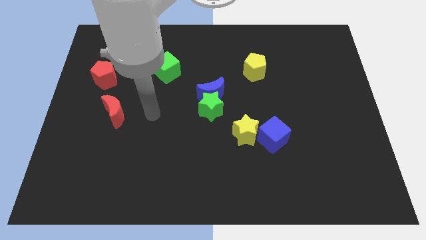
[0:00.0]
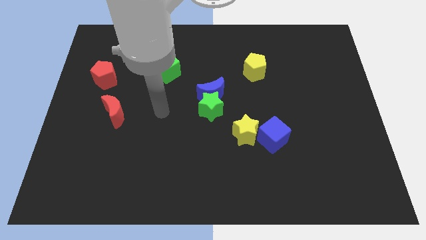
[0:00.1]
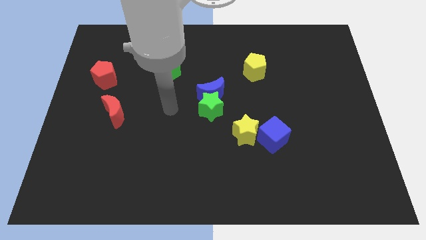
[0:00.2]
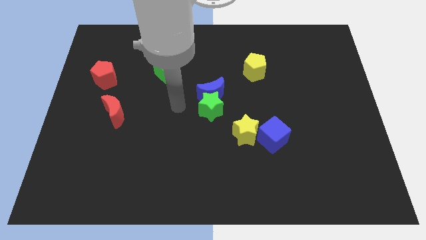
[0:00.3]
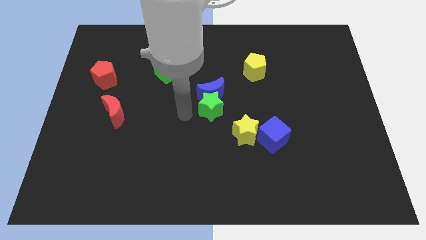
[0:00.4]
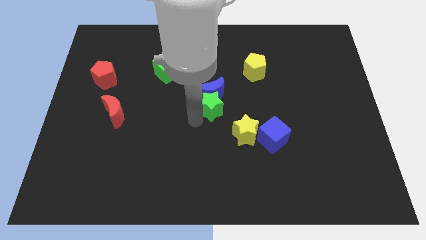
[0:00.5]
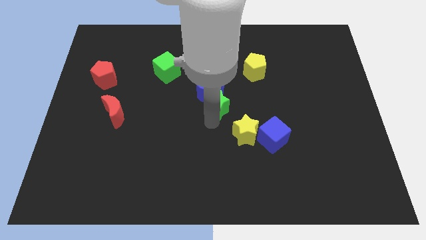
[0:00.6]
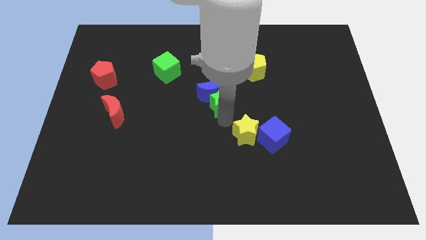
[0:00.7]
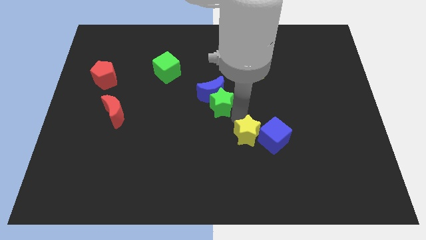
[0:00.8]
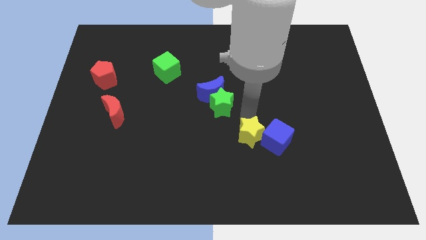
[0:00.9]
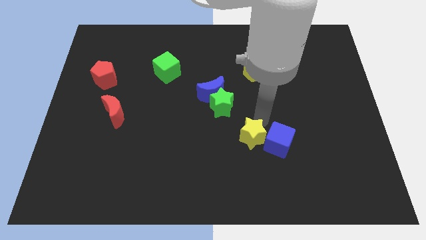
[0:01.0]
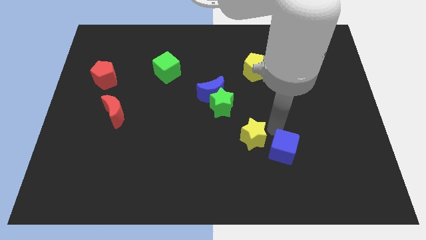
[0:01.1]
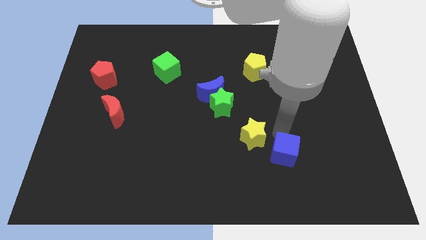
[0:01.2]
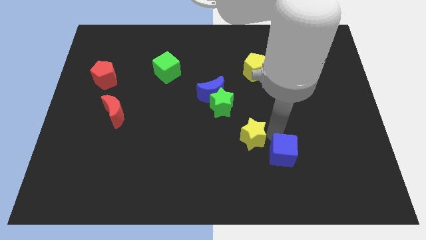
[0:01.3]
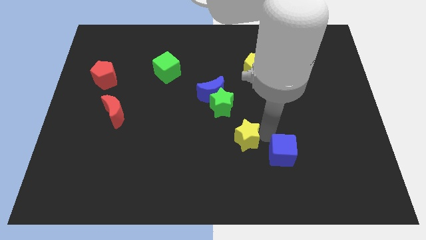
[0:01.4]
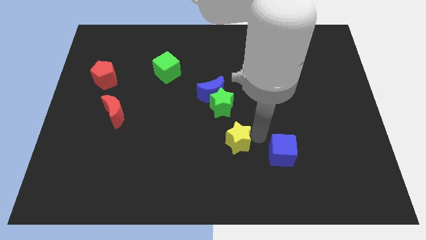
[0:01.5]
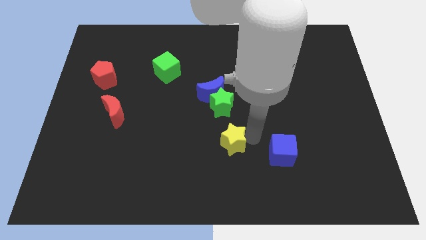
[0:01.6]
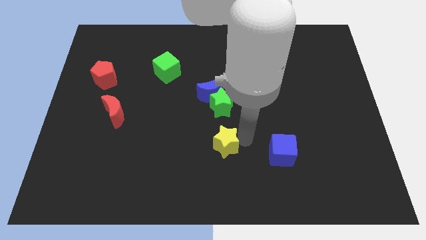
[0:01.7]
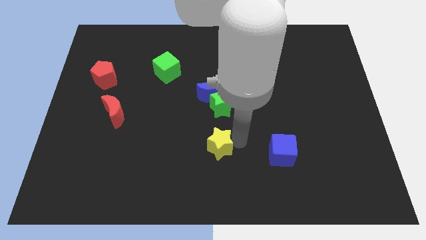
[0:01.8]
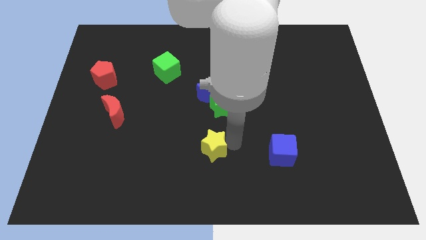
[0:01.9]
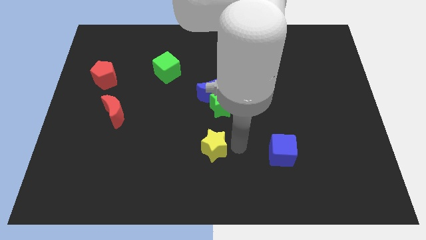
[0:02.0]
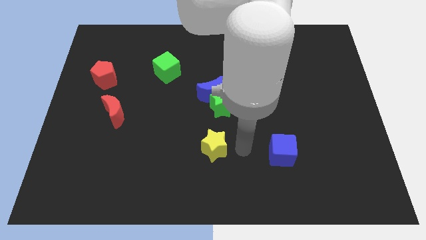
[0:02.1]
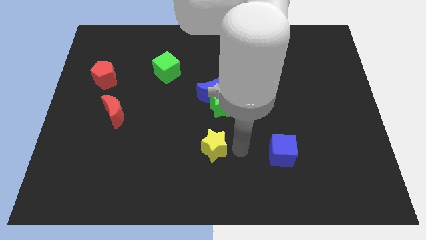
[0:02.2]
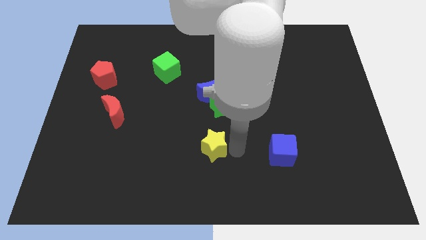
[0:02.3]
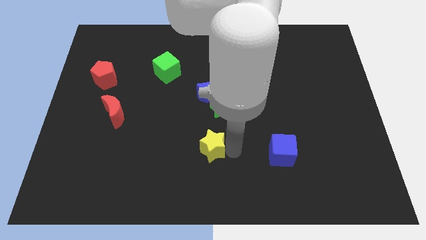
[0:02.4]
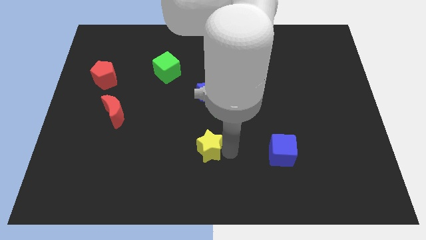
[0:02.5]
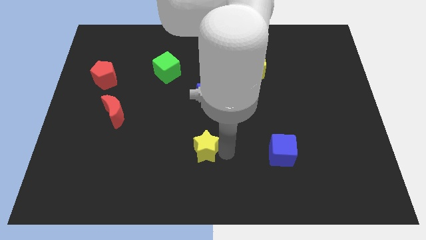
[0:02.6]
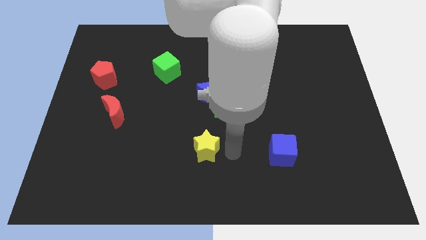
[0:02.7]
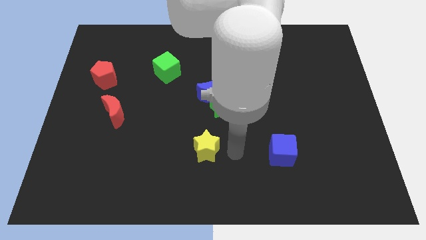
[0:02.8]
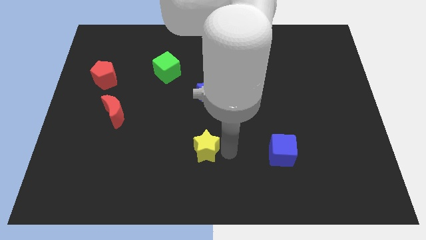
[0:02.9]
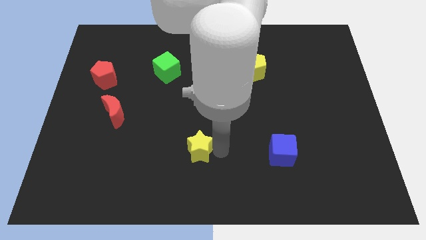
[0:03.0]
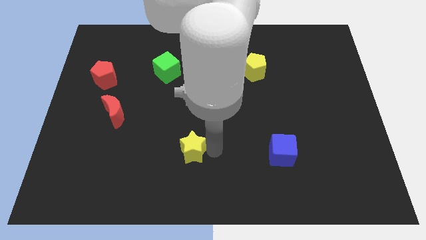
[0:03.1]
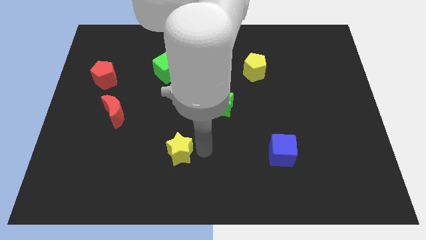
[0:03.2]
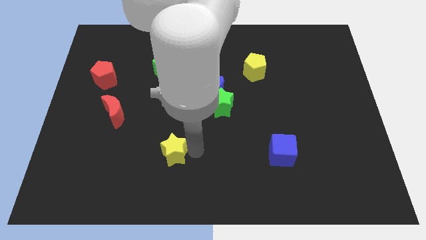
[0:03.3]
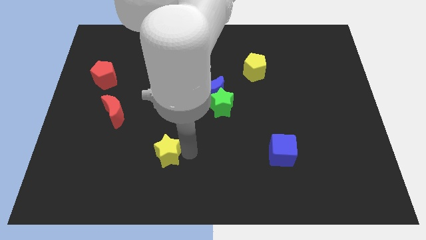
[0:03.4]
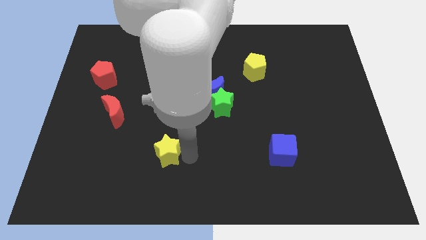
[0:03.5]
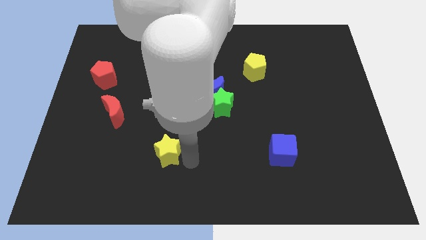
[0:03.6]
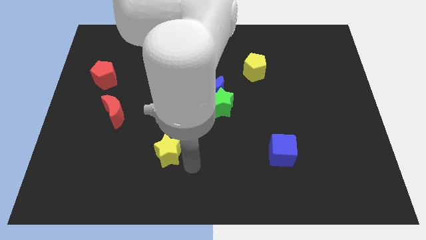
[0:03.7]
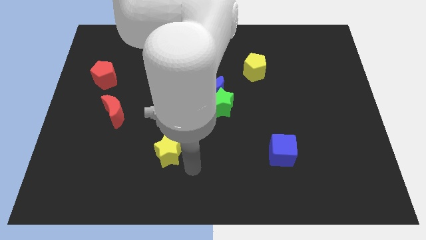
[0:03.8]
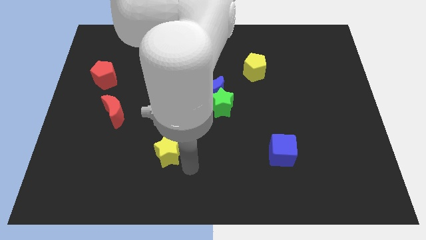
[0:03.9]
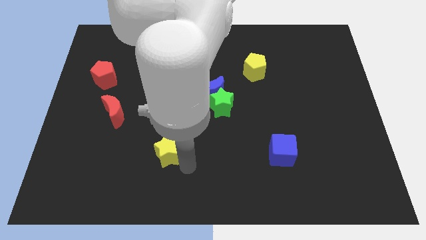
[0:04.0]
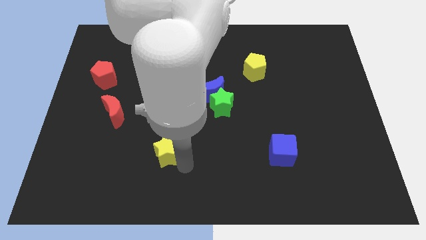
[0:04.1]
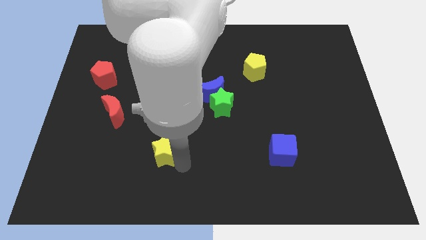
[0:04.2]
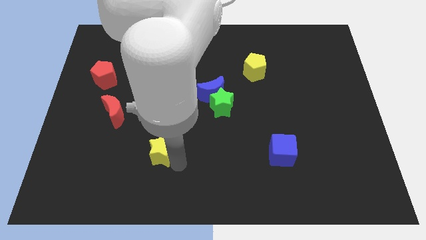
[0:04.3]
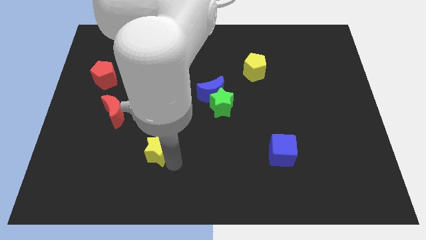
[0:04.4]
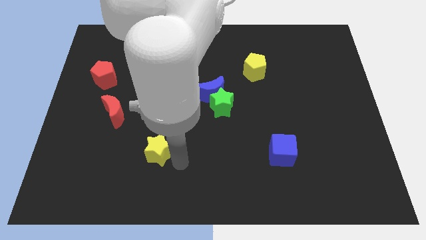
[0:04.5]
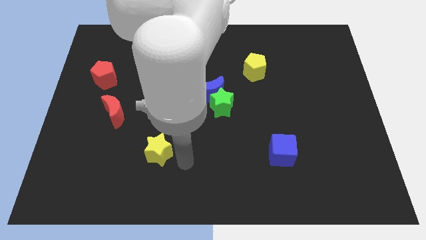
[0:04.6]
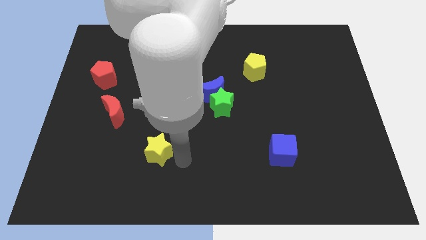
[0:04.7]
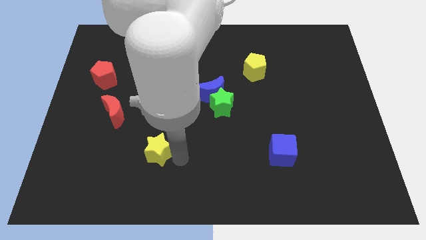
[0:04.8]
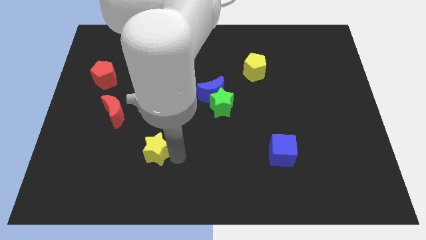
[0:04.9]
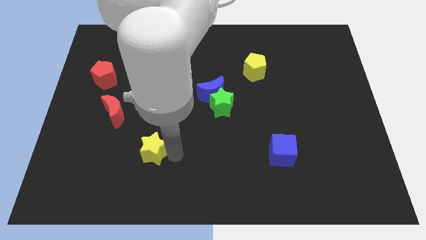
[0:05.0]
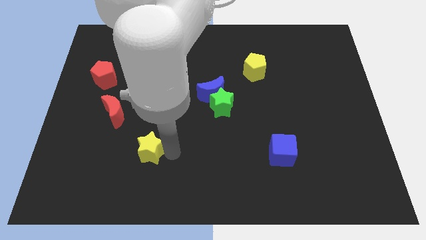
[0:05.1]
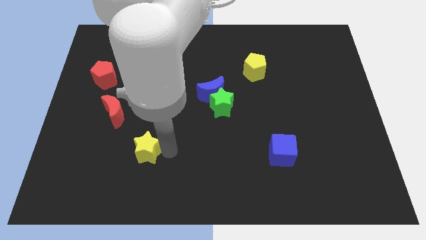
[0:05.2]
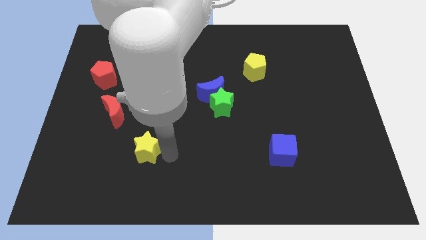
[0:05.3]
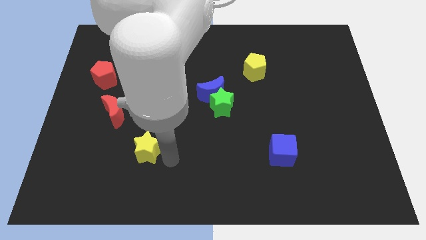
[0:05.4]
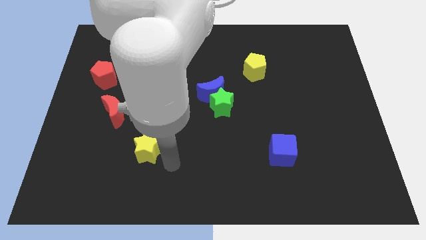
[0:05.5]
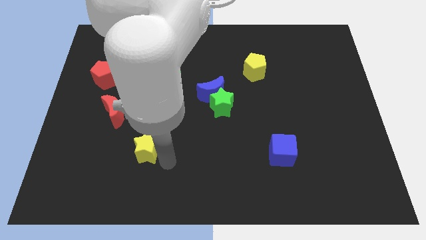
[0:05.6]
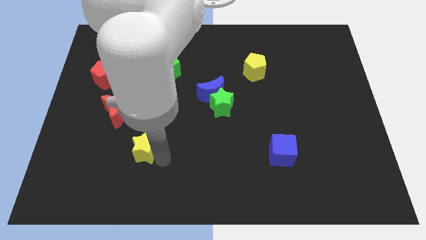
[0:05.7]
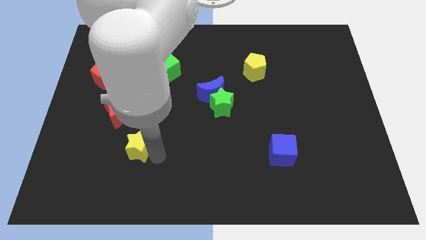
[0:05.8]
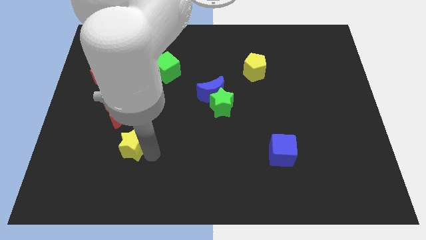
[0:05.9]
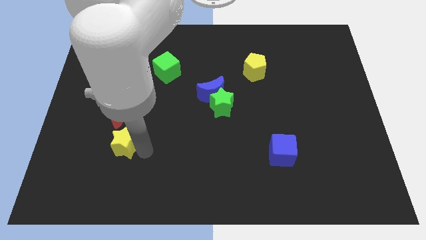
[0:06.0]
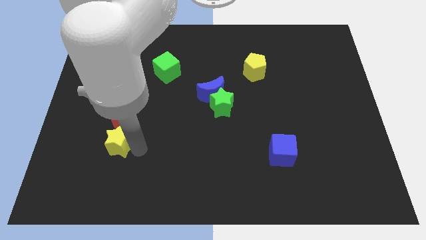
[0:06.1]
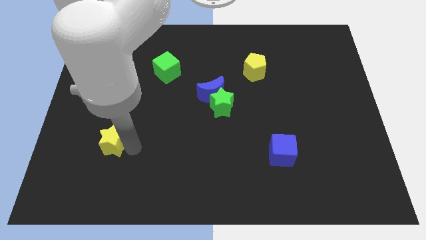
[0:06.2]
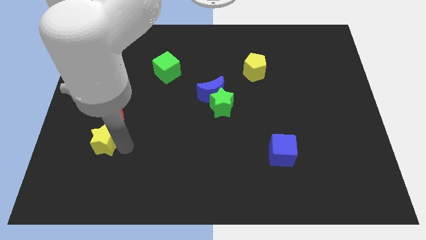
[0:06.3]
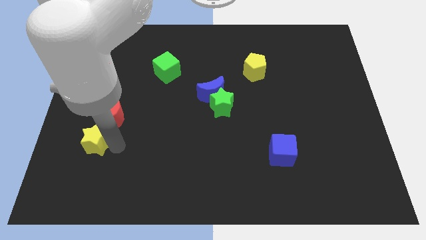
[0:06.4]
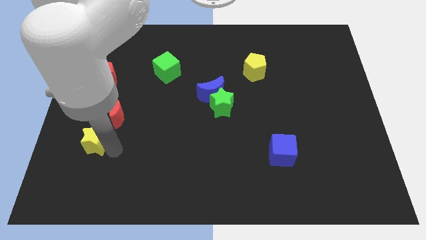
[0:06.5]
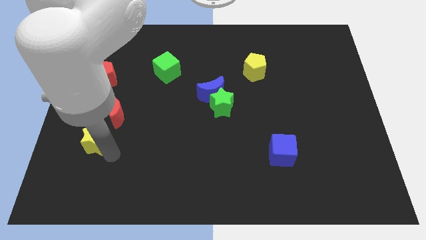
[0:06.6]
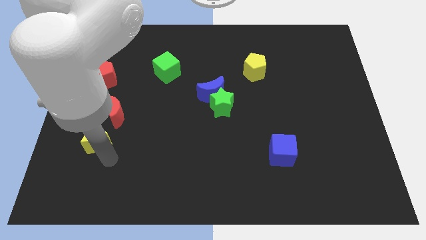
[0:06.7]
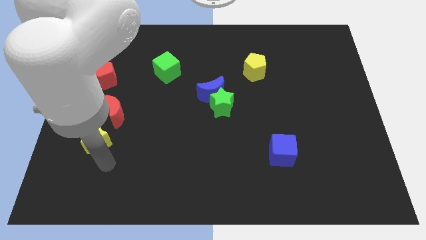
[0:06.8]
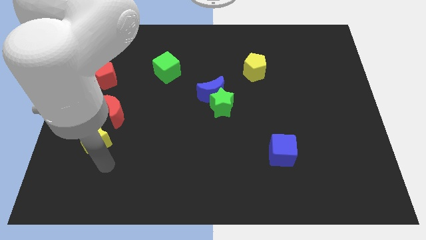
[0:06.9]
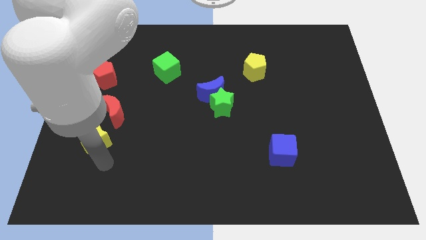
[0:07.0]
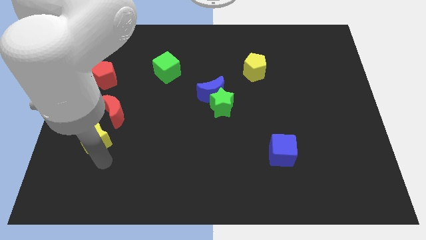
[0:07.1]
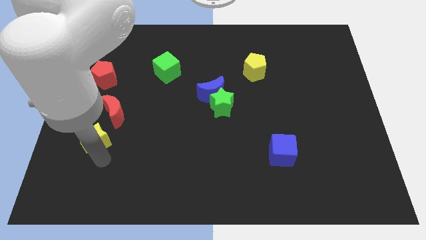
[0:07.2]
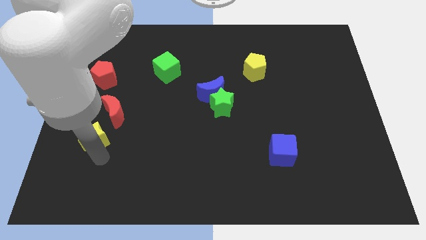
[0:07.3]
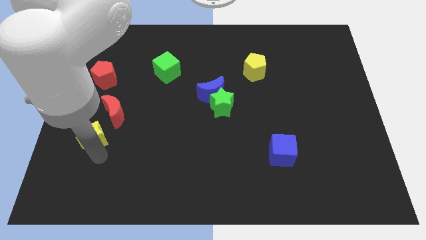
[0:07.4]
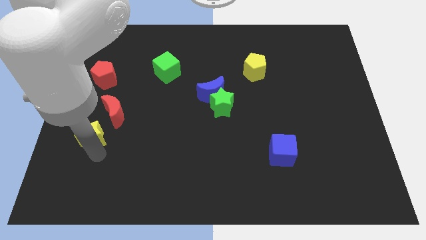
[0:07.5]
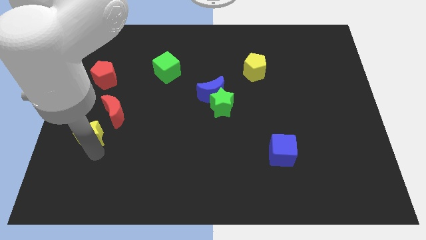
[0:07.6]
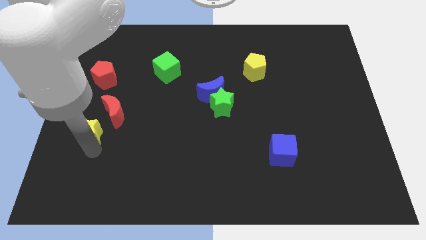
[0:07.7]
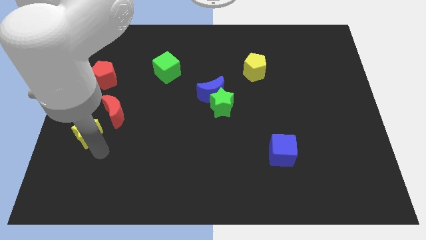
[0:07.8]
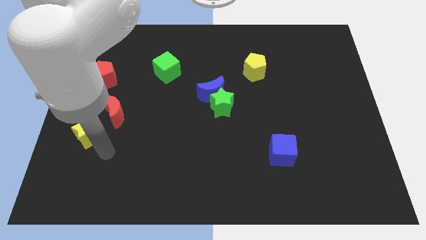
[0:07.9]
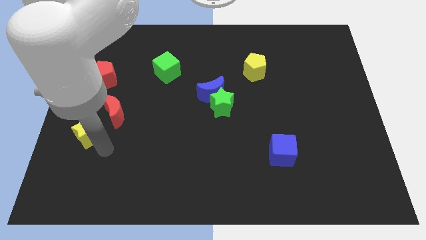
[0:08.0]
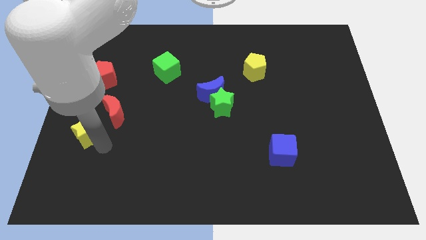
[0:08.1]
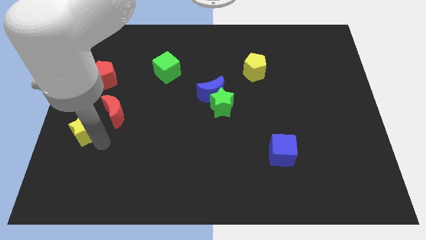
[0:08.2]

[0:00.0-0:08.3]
put the yellow star to the left side of the board
